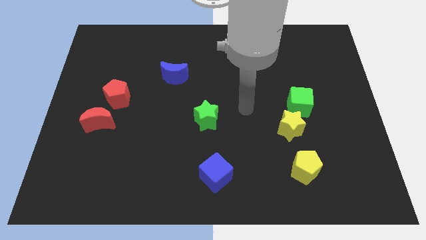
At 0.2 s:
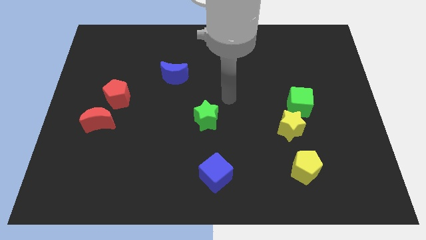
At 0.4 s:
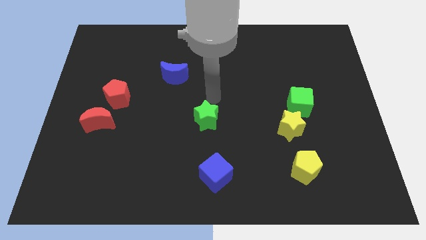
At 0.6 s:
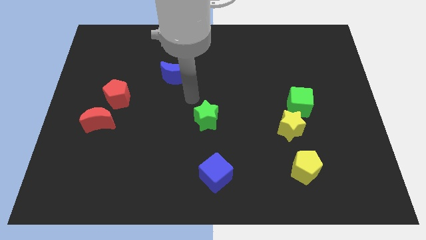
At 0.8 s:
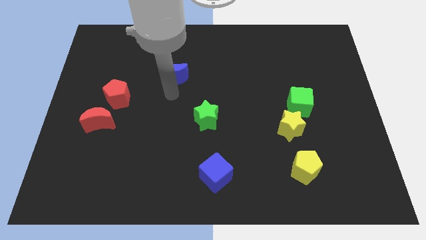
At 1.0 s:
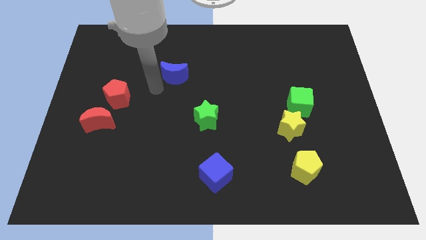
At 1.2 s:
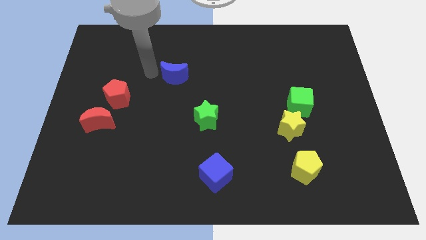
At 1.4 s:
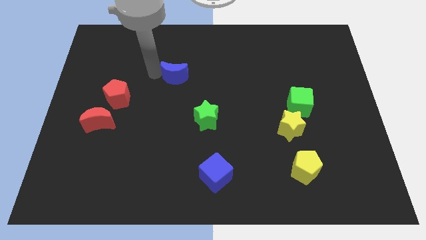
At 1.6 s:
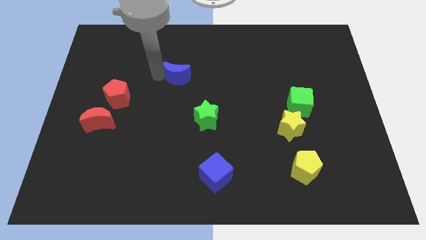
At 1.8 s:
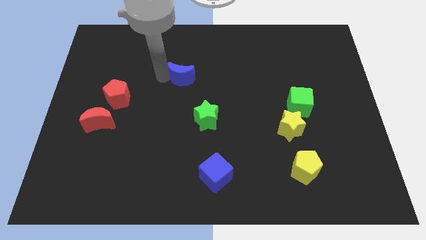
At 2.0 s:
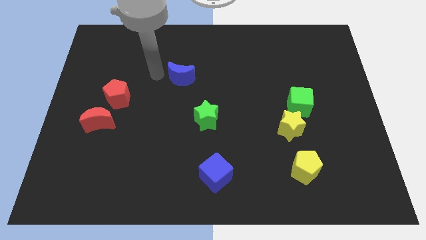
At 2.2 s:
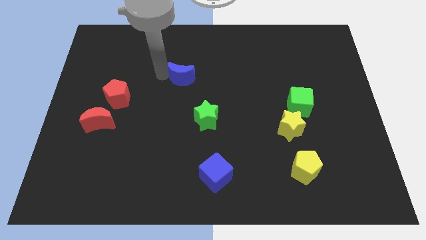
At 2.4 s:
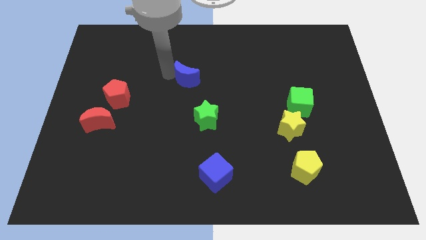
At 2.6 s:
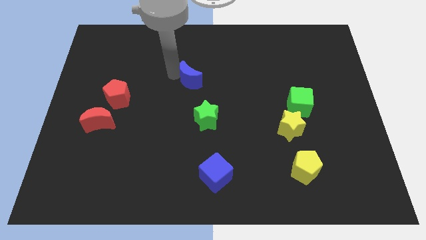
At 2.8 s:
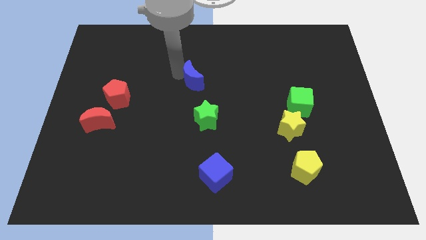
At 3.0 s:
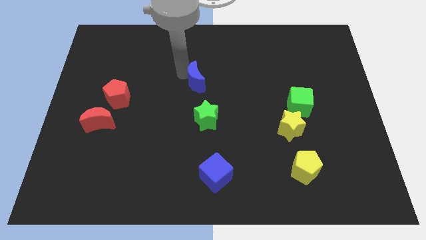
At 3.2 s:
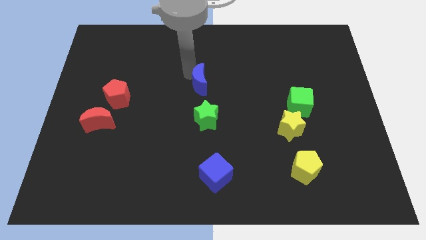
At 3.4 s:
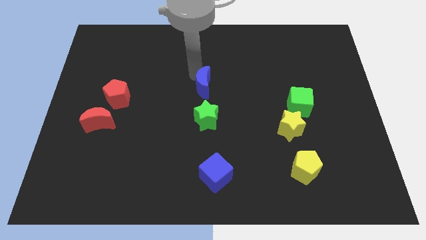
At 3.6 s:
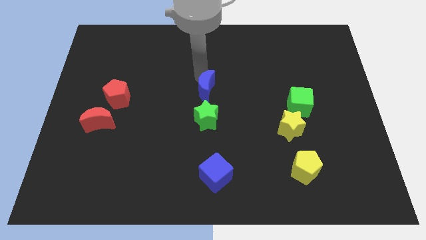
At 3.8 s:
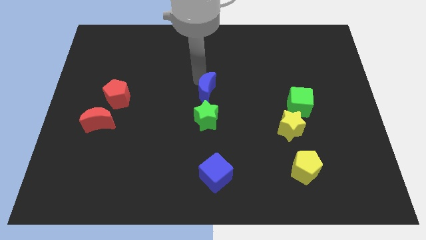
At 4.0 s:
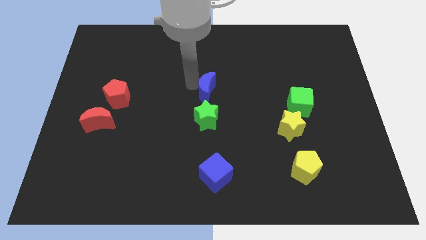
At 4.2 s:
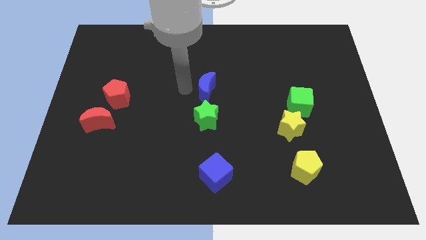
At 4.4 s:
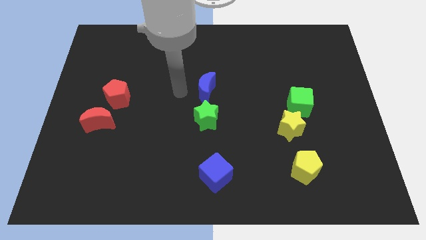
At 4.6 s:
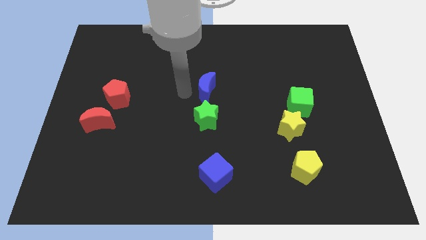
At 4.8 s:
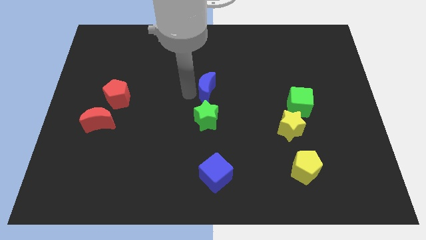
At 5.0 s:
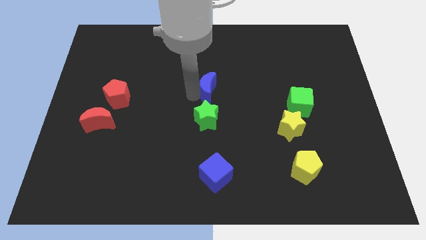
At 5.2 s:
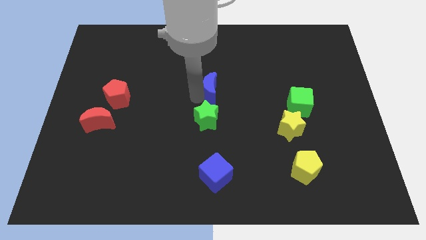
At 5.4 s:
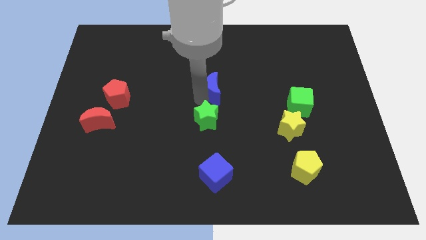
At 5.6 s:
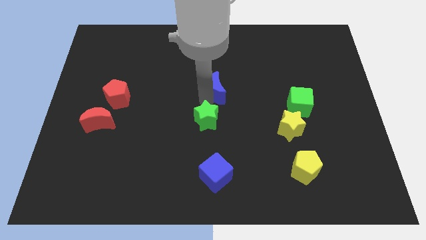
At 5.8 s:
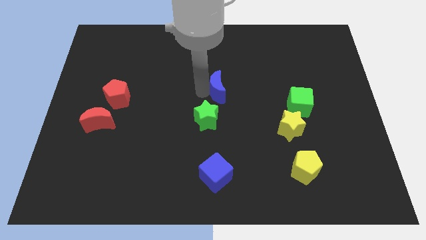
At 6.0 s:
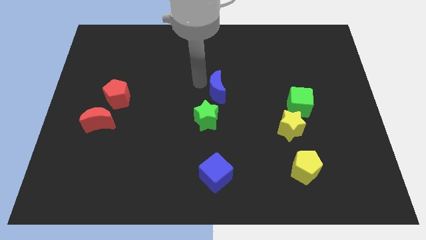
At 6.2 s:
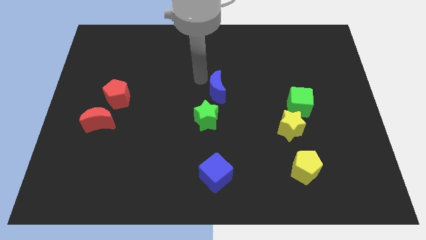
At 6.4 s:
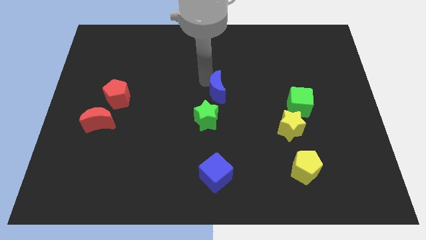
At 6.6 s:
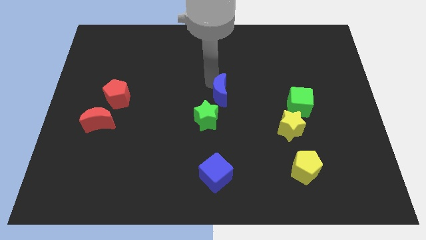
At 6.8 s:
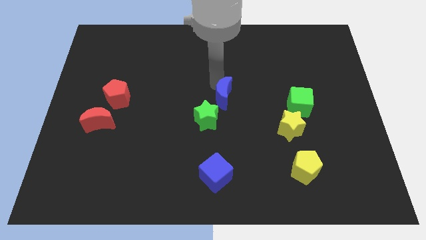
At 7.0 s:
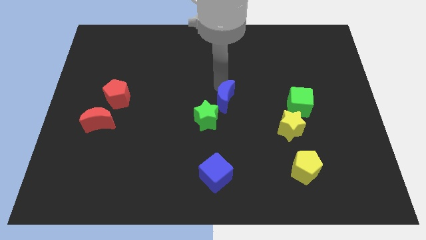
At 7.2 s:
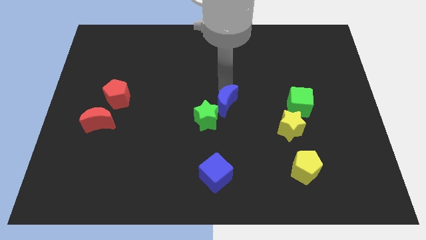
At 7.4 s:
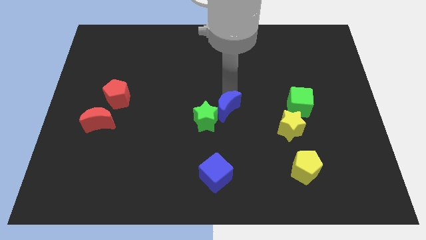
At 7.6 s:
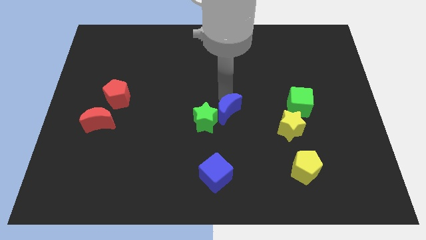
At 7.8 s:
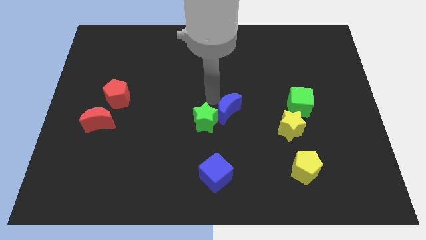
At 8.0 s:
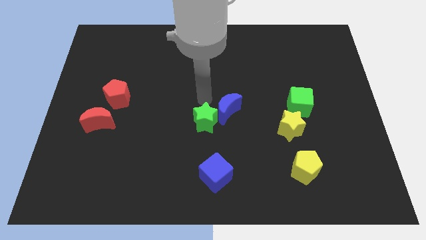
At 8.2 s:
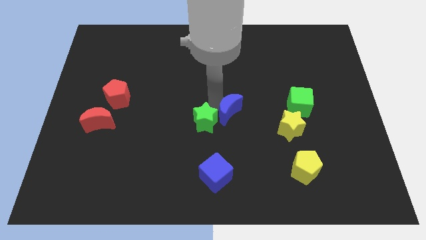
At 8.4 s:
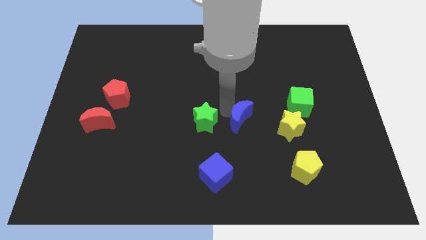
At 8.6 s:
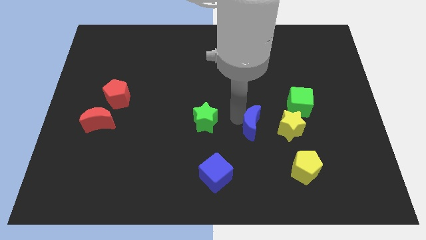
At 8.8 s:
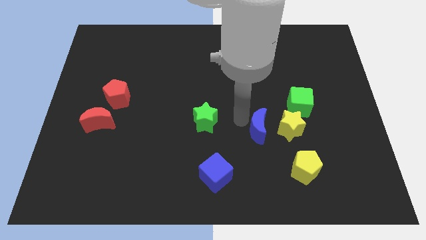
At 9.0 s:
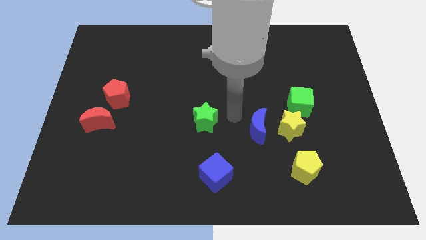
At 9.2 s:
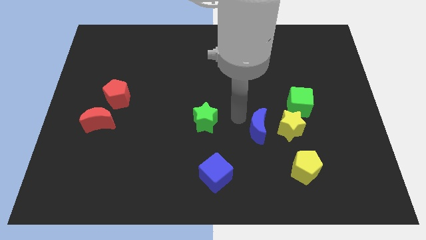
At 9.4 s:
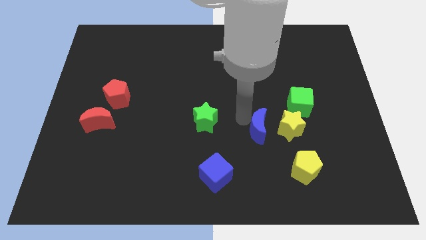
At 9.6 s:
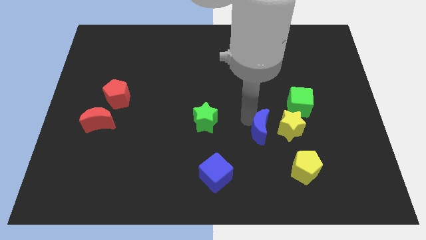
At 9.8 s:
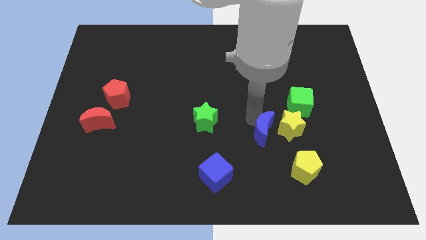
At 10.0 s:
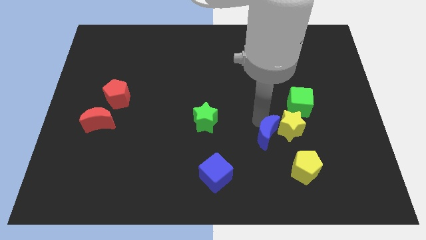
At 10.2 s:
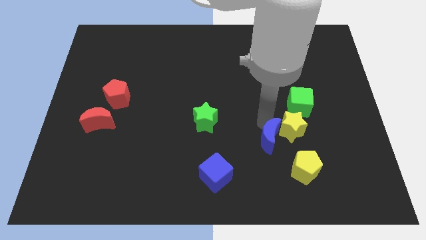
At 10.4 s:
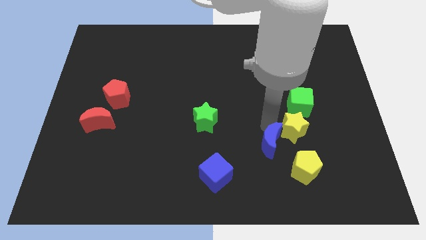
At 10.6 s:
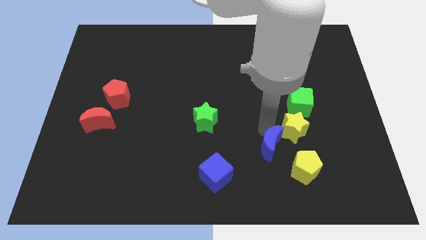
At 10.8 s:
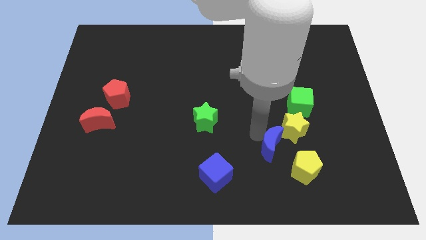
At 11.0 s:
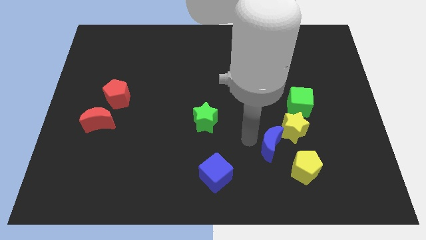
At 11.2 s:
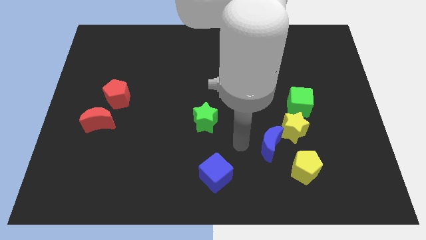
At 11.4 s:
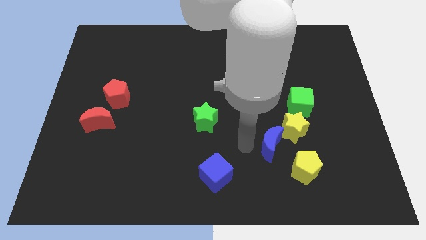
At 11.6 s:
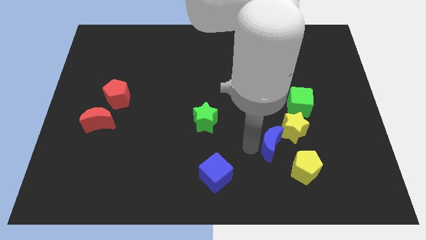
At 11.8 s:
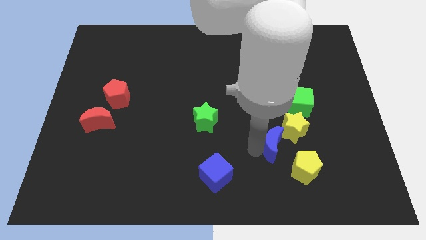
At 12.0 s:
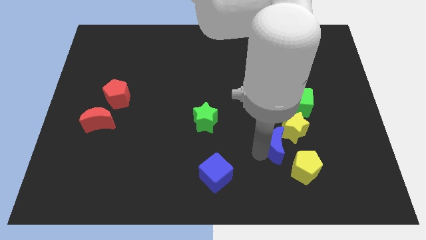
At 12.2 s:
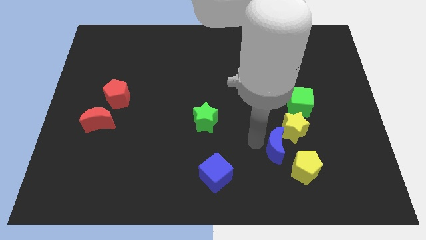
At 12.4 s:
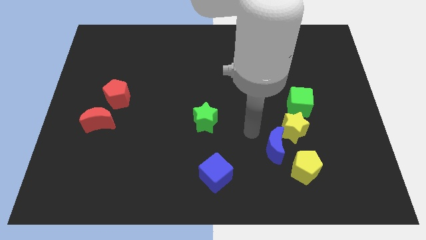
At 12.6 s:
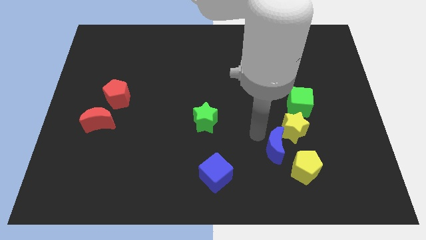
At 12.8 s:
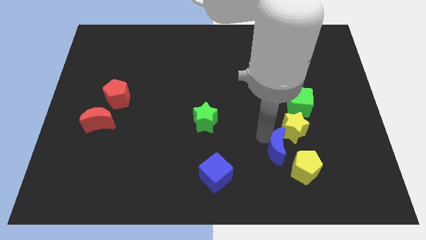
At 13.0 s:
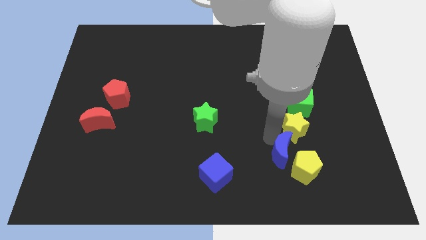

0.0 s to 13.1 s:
put the blue moon towards the yellow pentagon

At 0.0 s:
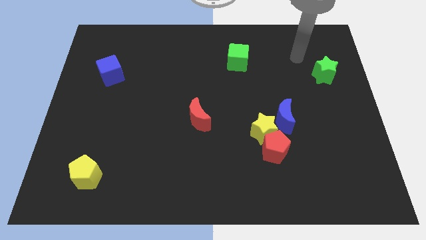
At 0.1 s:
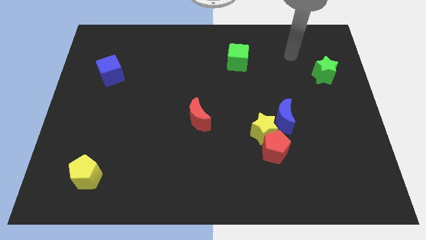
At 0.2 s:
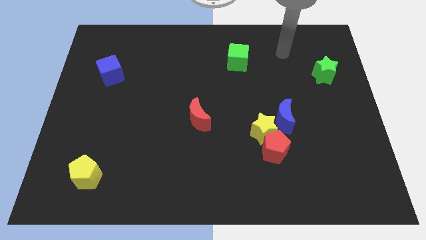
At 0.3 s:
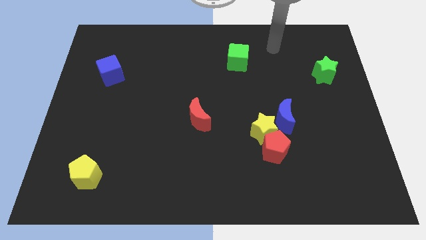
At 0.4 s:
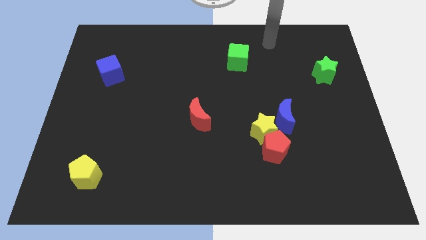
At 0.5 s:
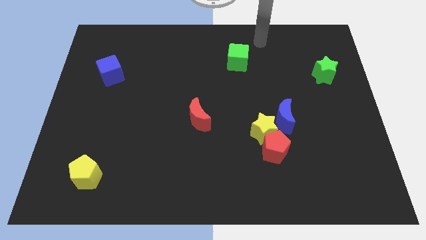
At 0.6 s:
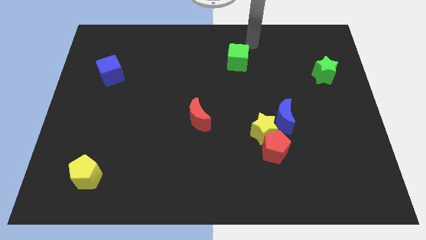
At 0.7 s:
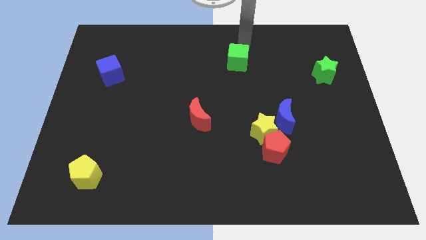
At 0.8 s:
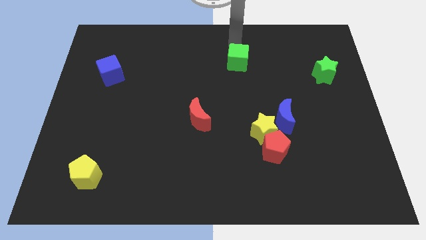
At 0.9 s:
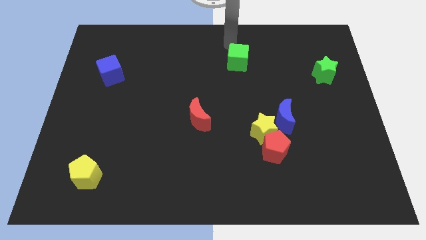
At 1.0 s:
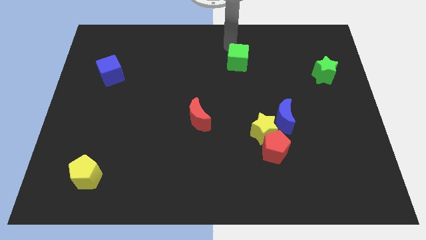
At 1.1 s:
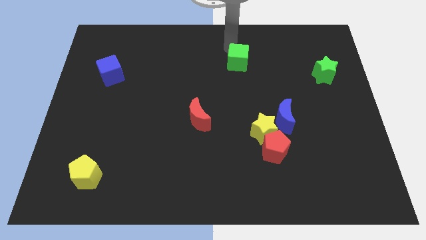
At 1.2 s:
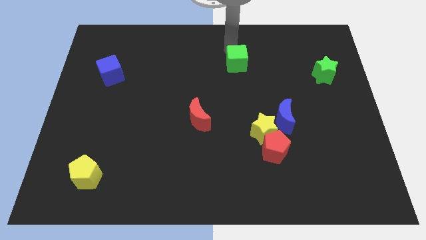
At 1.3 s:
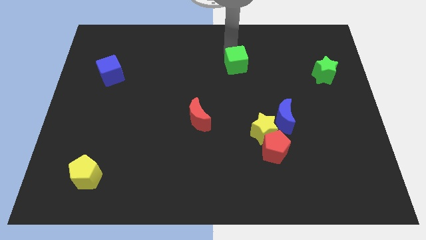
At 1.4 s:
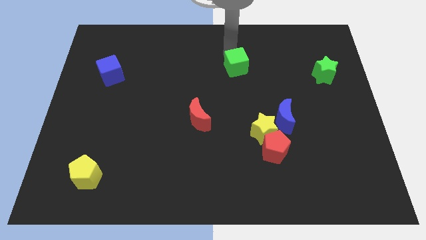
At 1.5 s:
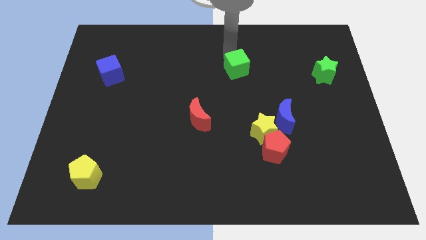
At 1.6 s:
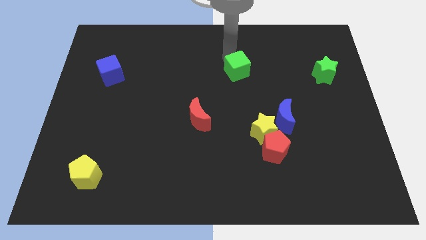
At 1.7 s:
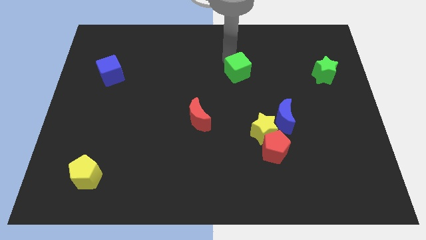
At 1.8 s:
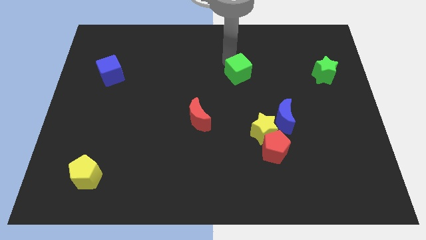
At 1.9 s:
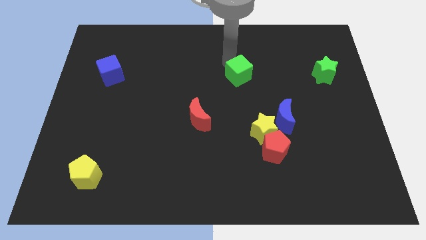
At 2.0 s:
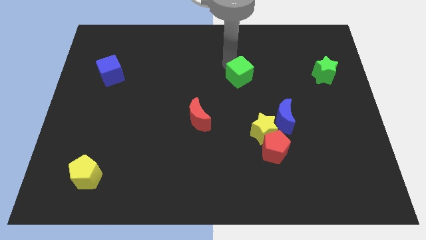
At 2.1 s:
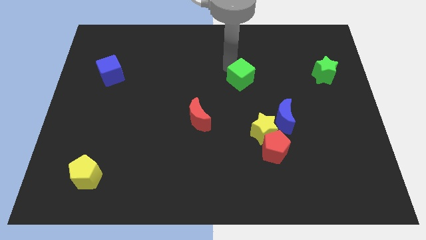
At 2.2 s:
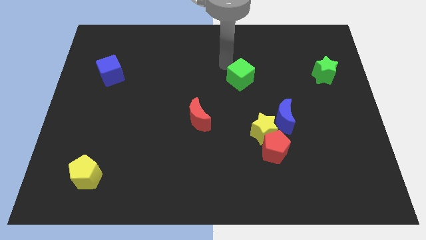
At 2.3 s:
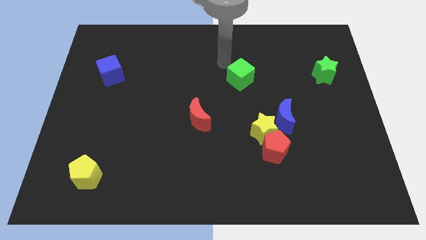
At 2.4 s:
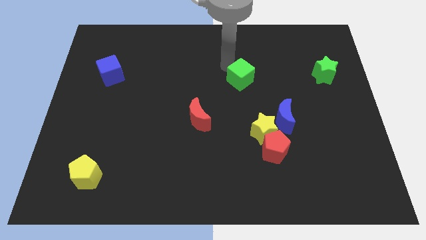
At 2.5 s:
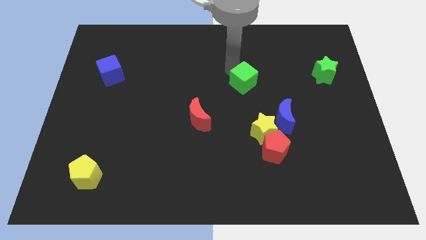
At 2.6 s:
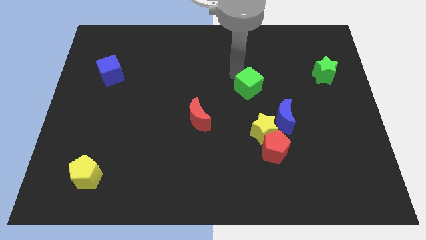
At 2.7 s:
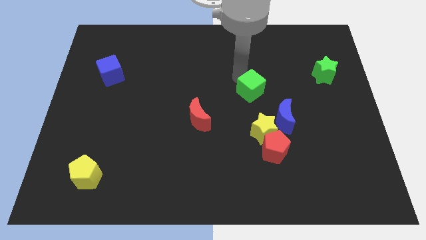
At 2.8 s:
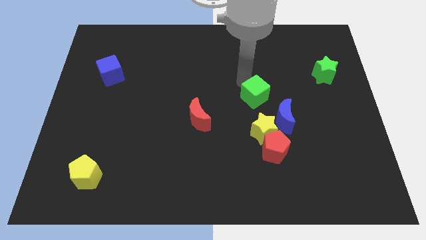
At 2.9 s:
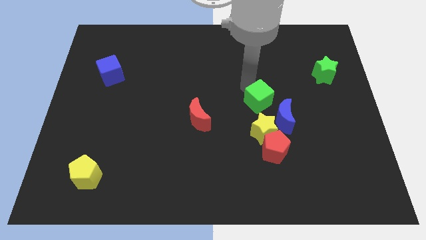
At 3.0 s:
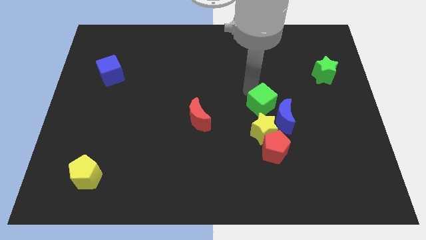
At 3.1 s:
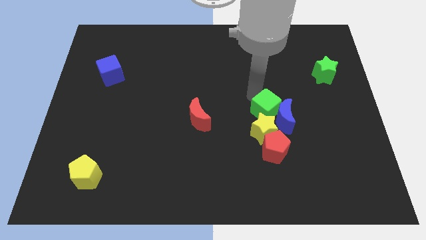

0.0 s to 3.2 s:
slide the green cube next to the blue moon
